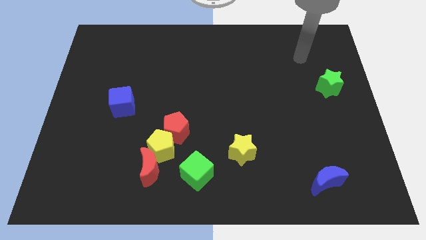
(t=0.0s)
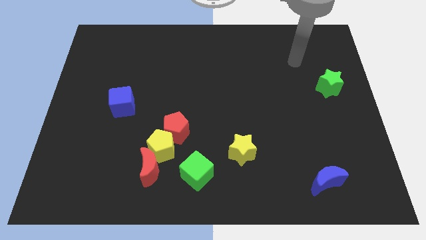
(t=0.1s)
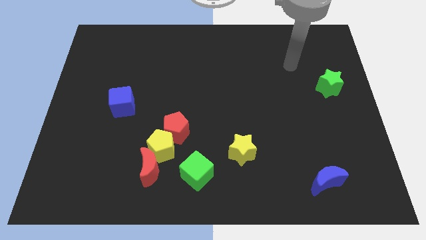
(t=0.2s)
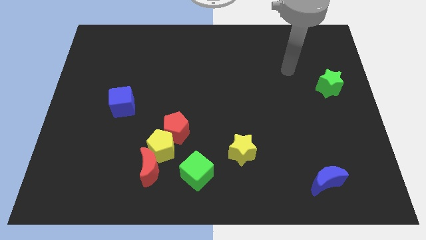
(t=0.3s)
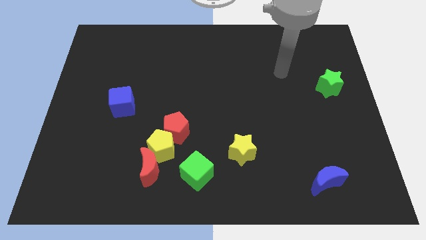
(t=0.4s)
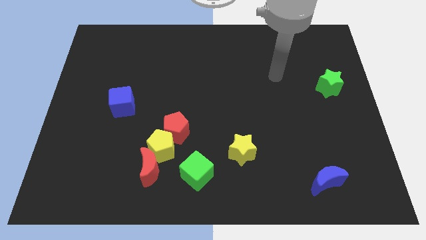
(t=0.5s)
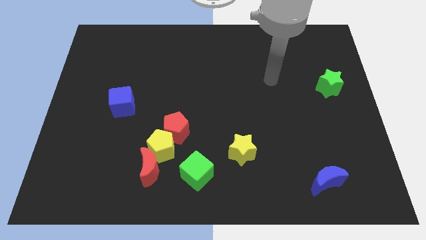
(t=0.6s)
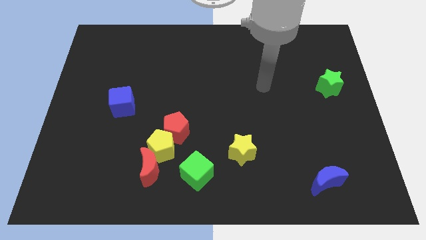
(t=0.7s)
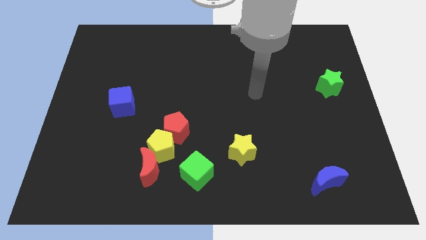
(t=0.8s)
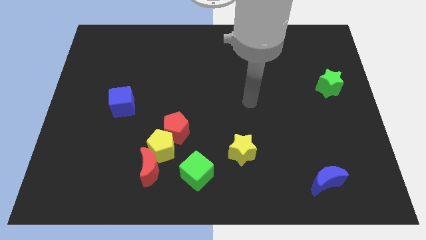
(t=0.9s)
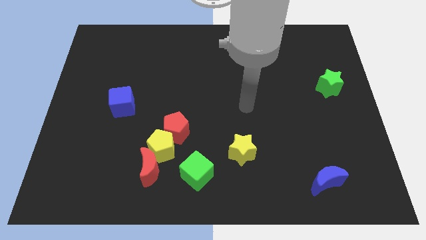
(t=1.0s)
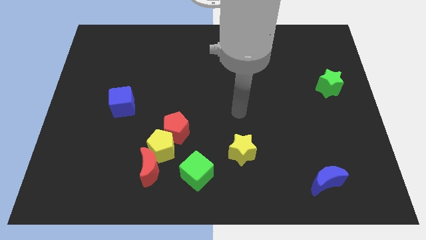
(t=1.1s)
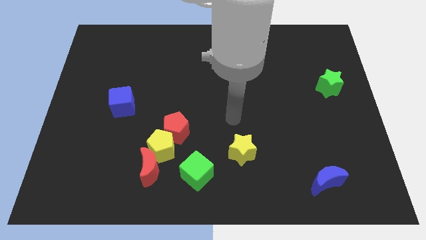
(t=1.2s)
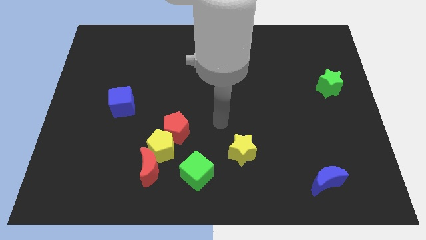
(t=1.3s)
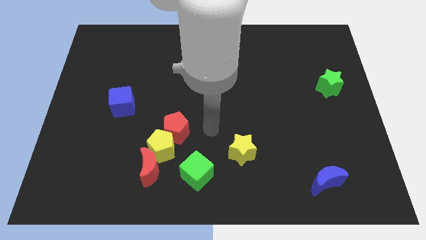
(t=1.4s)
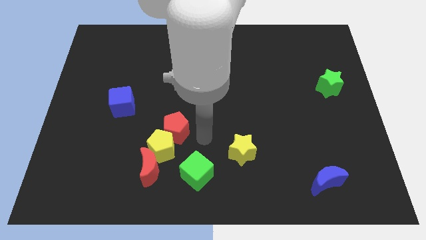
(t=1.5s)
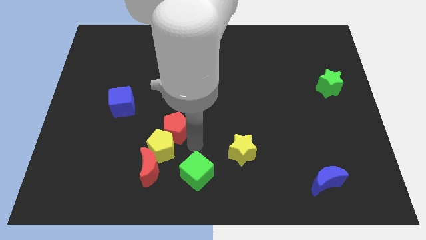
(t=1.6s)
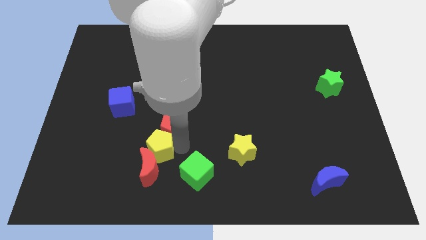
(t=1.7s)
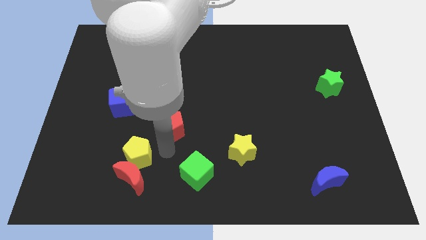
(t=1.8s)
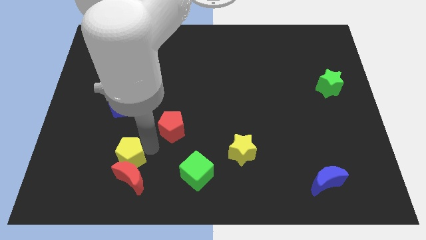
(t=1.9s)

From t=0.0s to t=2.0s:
separate the red pentagon from the yellow pentagon

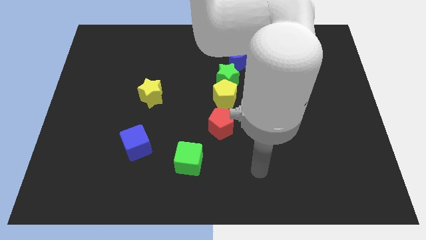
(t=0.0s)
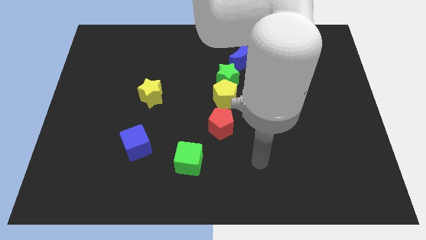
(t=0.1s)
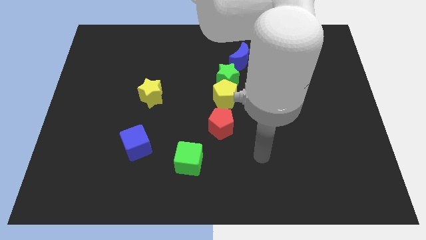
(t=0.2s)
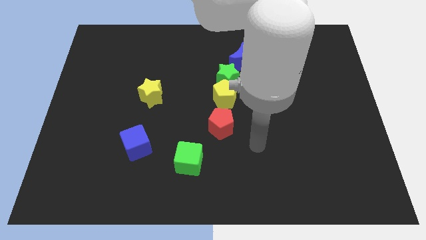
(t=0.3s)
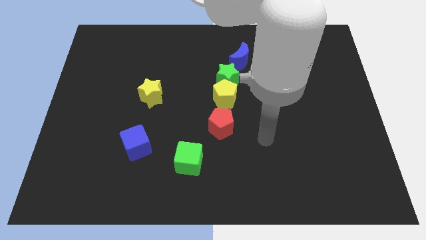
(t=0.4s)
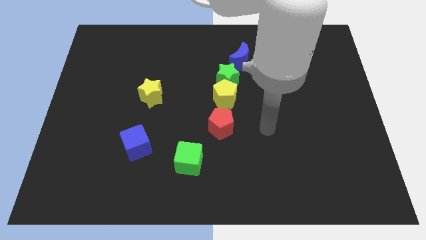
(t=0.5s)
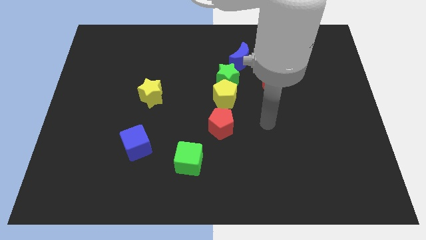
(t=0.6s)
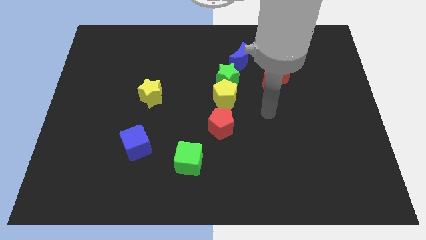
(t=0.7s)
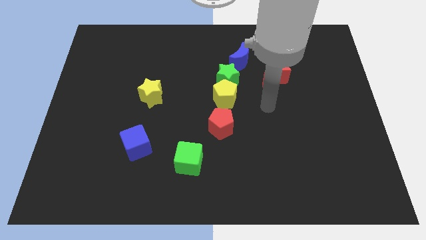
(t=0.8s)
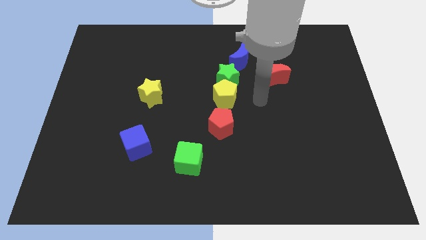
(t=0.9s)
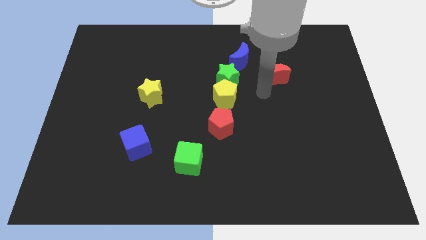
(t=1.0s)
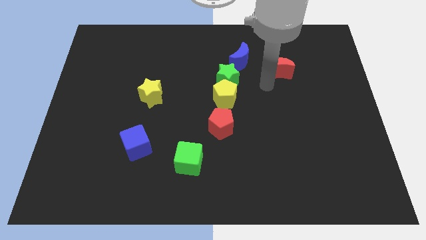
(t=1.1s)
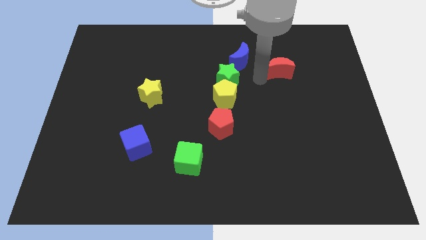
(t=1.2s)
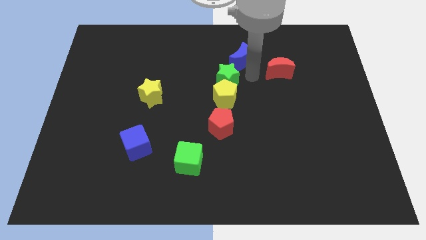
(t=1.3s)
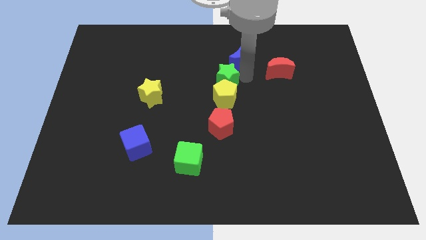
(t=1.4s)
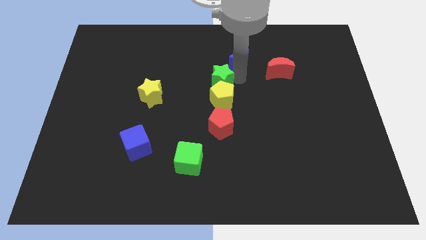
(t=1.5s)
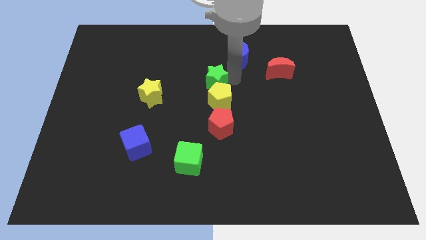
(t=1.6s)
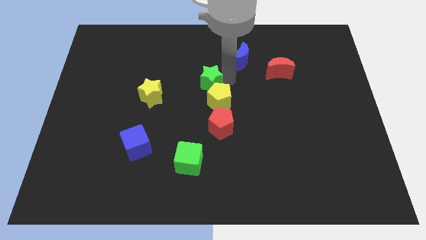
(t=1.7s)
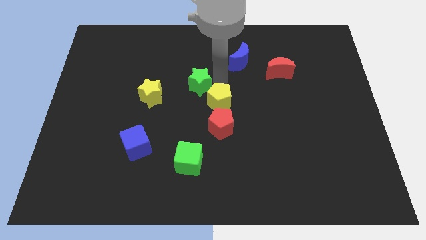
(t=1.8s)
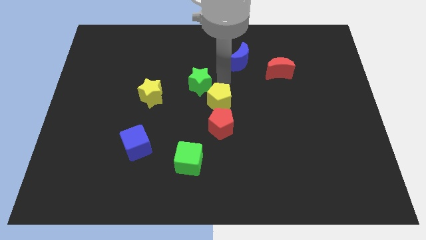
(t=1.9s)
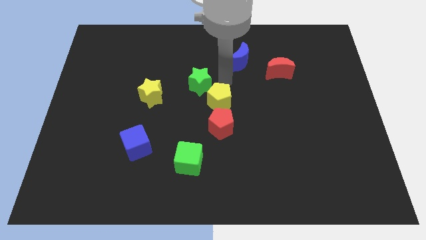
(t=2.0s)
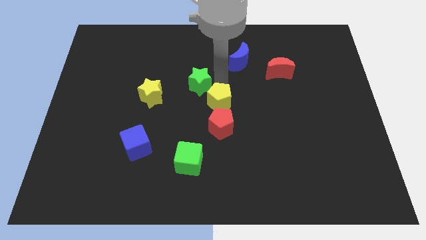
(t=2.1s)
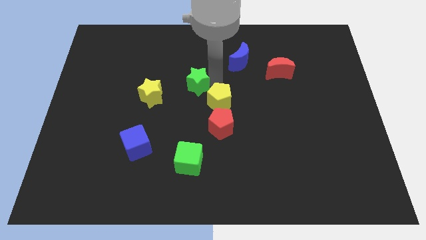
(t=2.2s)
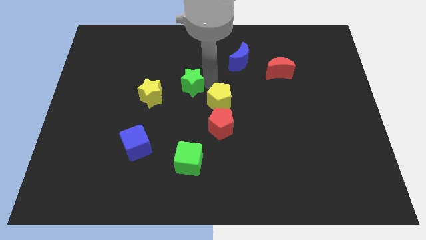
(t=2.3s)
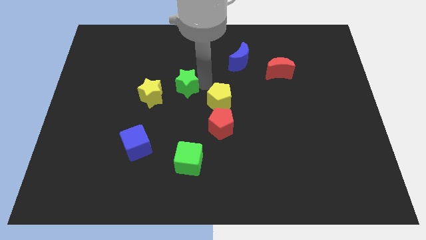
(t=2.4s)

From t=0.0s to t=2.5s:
separate the green star from the yellow pentagon and blue moon

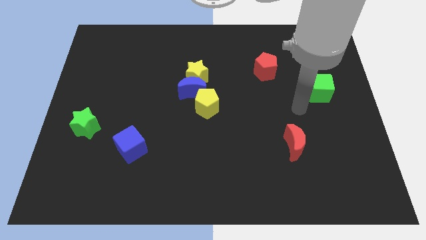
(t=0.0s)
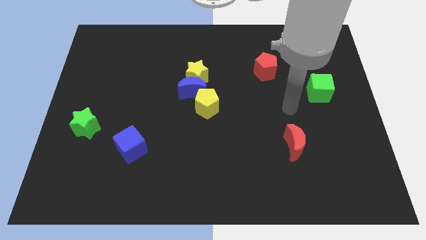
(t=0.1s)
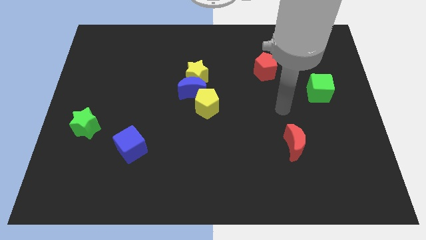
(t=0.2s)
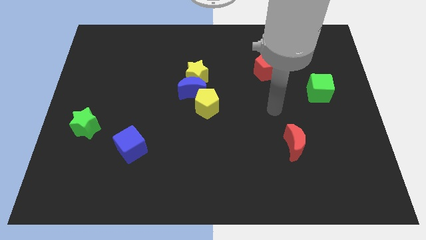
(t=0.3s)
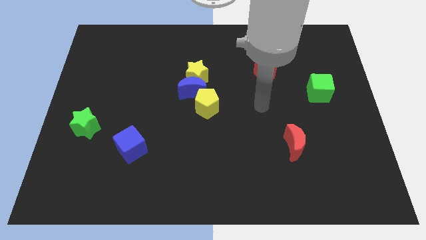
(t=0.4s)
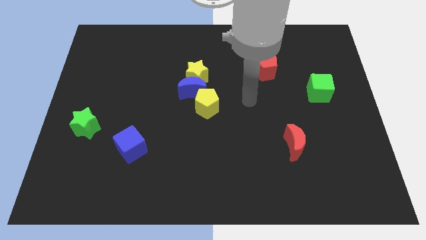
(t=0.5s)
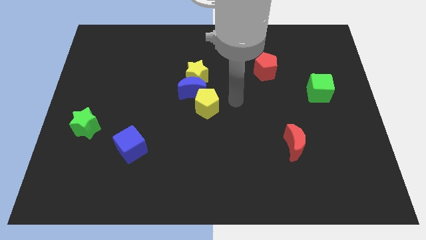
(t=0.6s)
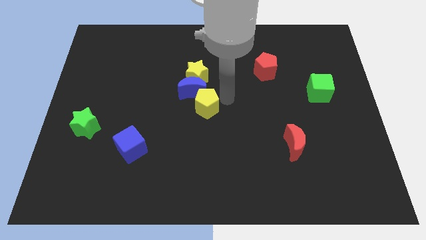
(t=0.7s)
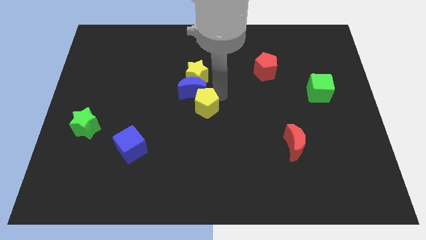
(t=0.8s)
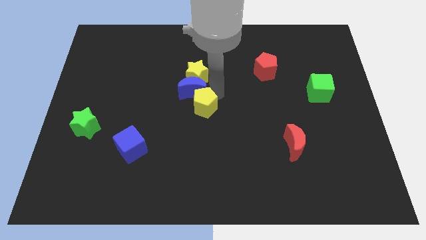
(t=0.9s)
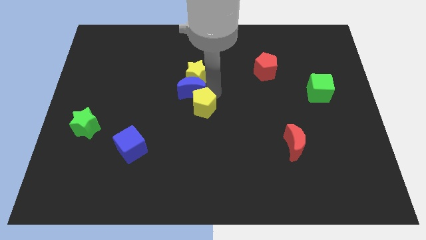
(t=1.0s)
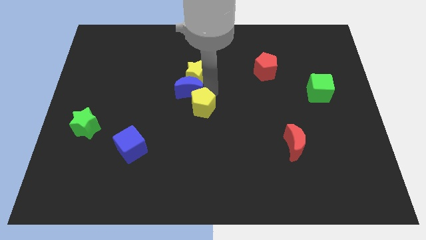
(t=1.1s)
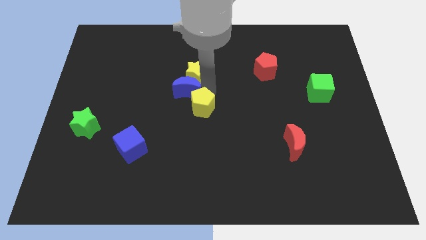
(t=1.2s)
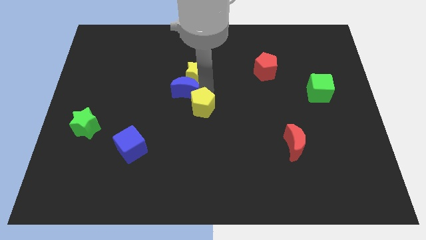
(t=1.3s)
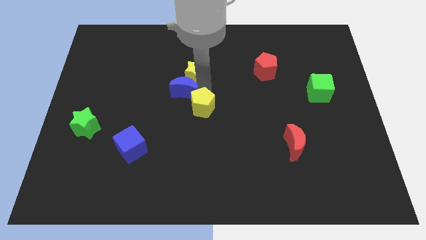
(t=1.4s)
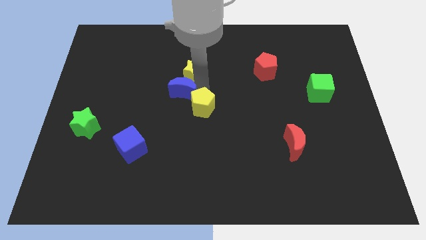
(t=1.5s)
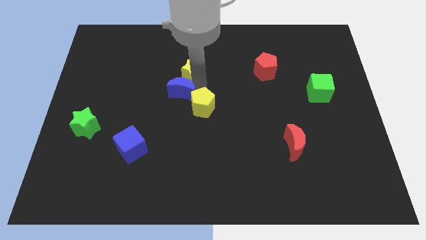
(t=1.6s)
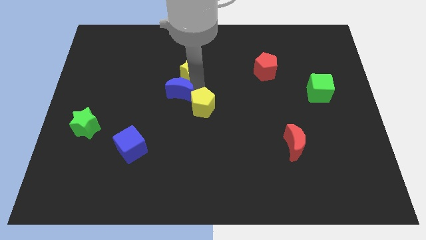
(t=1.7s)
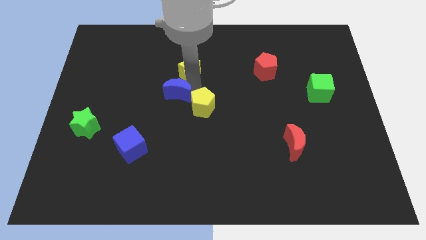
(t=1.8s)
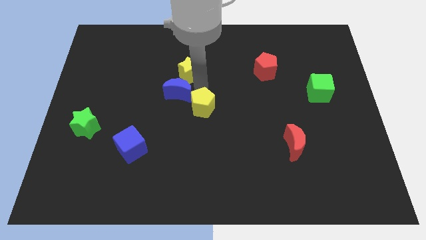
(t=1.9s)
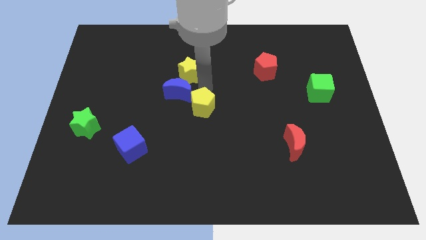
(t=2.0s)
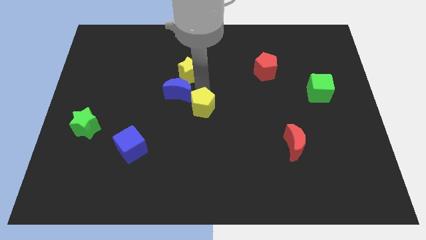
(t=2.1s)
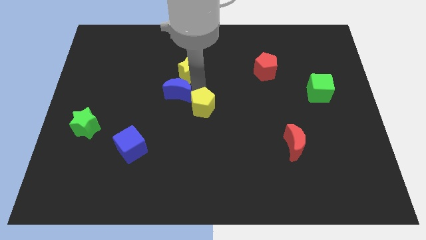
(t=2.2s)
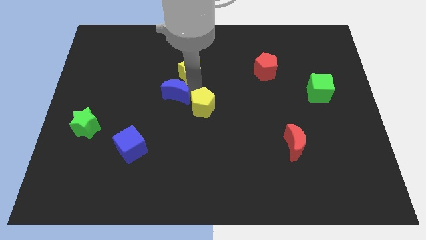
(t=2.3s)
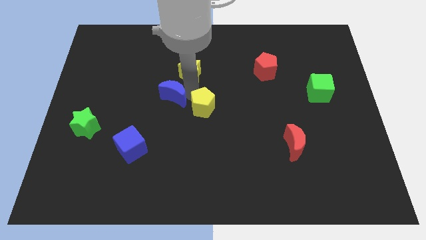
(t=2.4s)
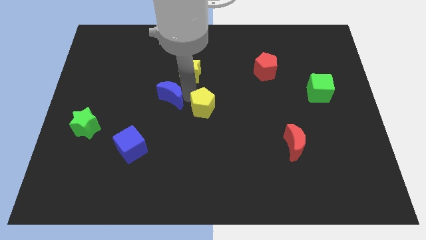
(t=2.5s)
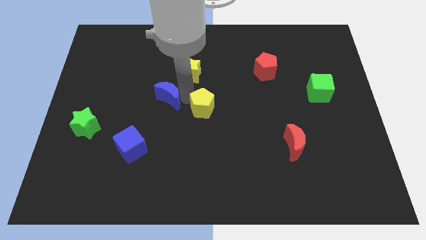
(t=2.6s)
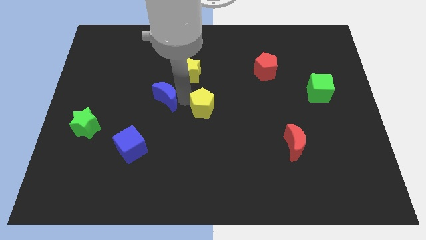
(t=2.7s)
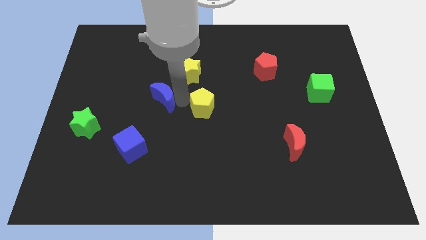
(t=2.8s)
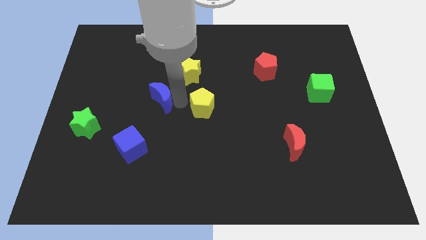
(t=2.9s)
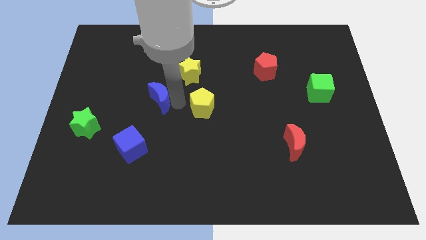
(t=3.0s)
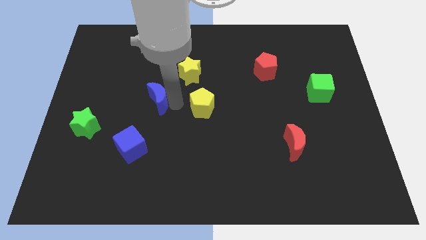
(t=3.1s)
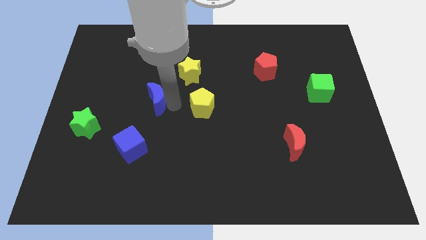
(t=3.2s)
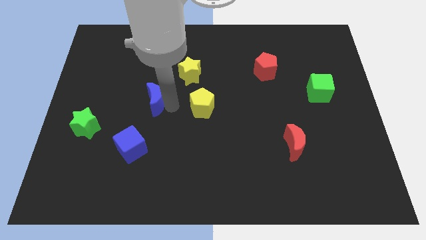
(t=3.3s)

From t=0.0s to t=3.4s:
separate the blue moon from the yellow star and yellow pentagon

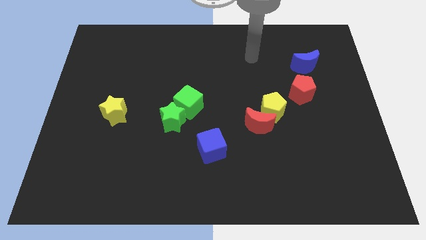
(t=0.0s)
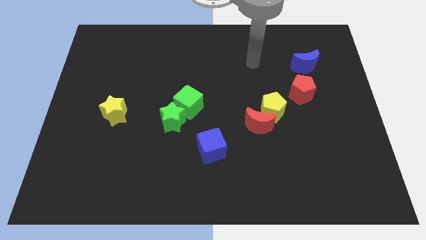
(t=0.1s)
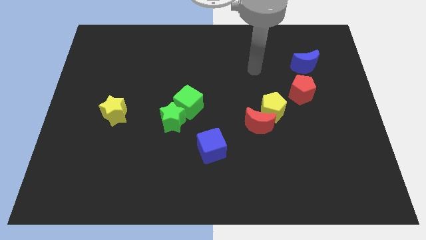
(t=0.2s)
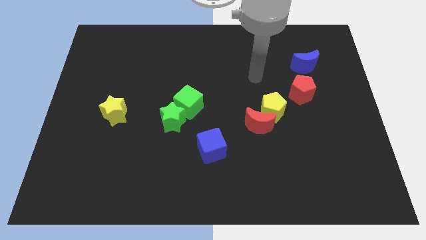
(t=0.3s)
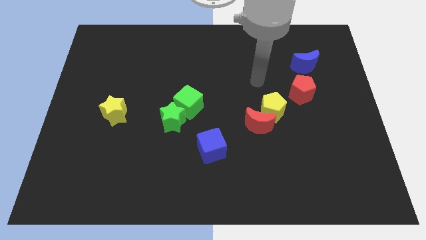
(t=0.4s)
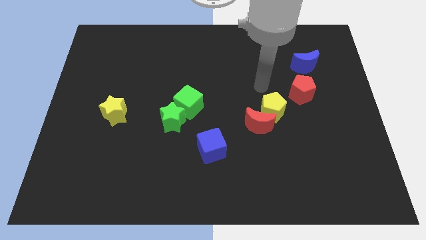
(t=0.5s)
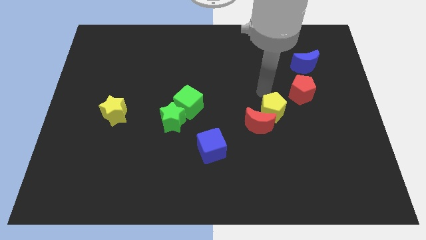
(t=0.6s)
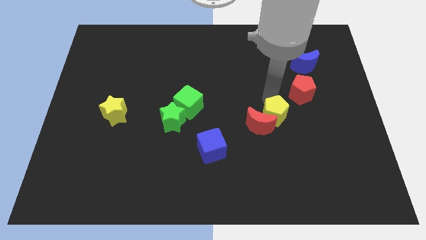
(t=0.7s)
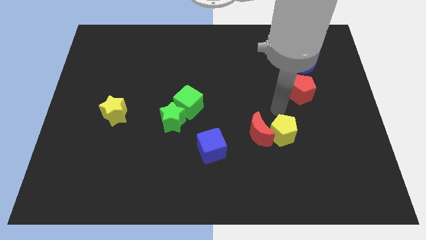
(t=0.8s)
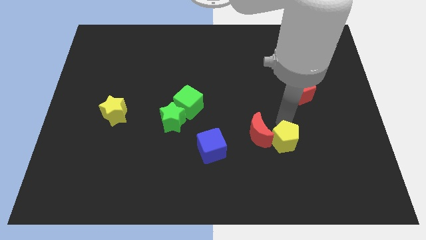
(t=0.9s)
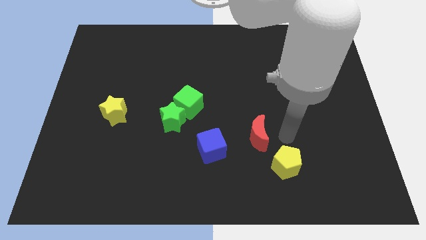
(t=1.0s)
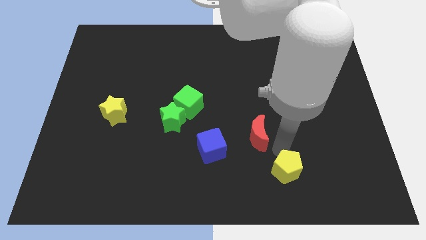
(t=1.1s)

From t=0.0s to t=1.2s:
pull the red moon apart from the yellow pentagon

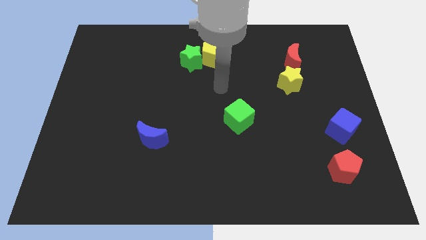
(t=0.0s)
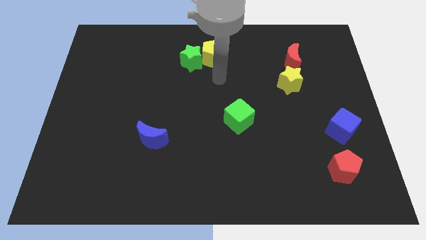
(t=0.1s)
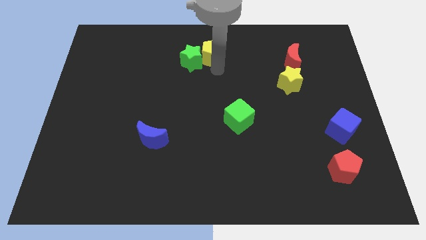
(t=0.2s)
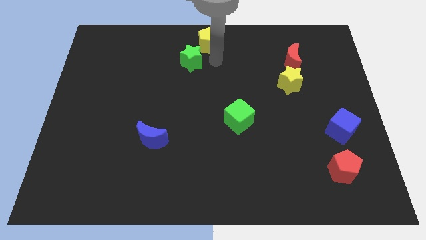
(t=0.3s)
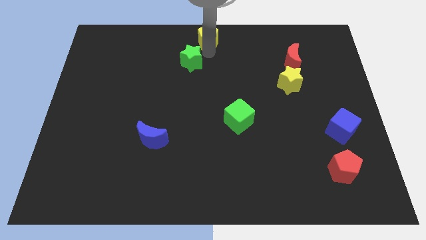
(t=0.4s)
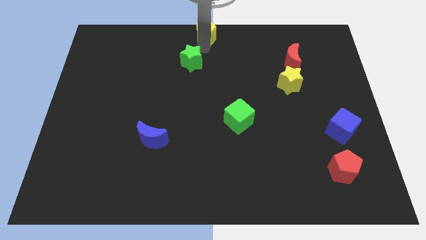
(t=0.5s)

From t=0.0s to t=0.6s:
pull the green star apart from the yellow pentagon
